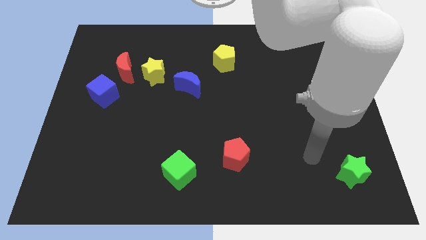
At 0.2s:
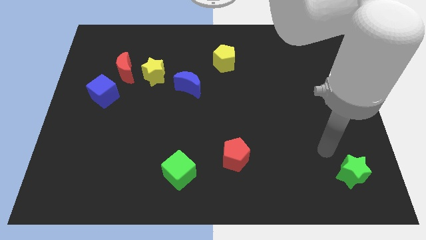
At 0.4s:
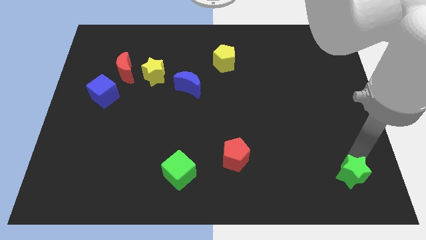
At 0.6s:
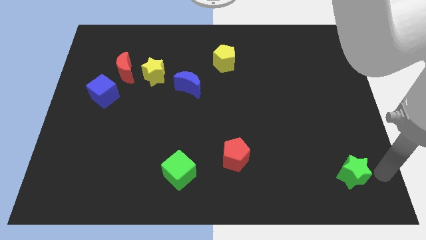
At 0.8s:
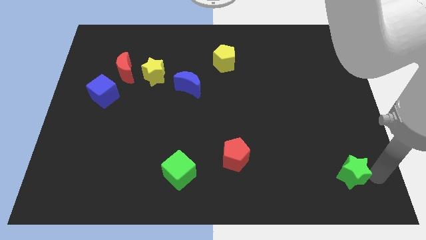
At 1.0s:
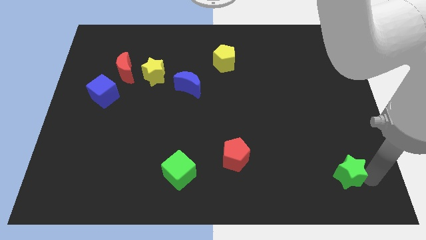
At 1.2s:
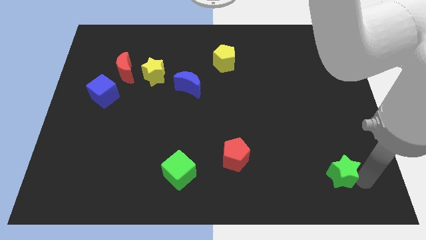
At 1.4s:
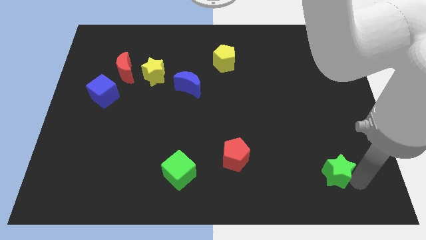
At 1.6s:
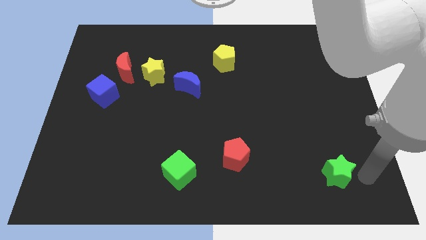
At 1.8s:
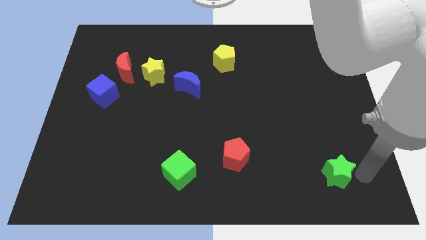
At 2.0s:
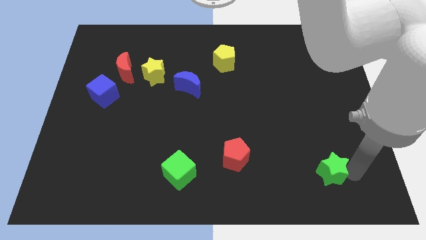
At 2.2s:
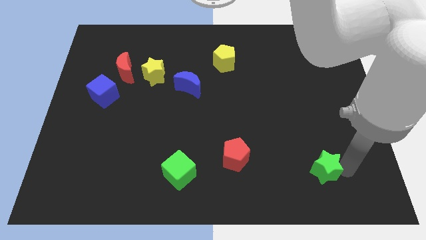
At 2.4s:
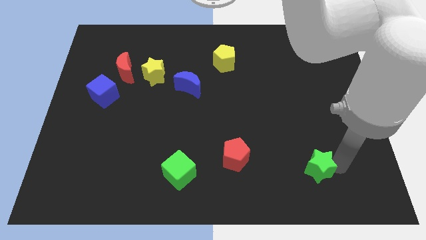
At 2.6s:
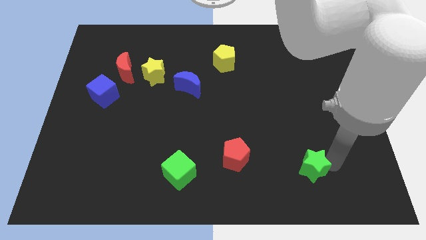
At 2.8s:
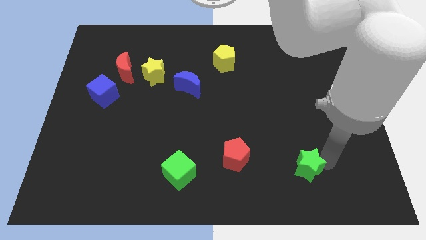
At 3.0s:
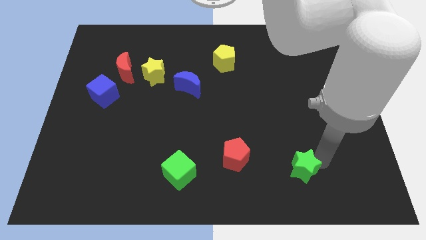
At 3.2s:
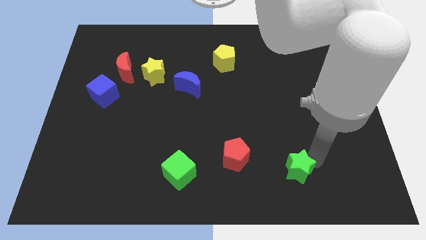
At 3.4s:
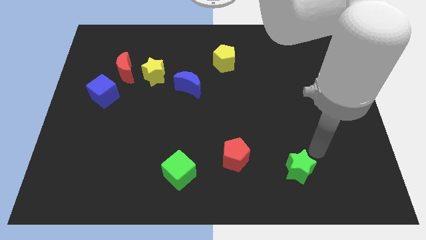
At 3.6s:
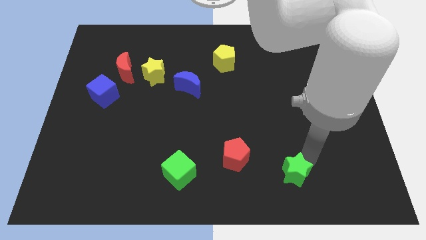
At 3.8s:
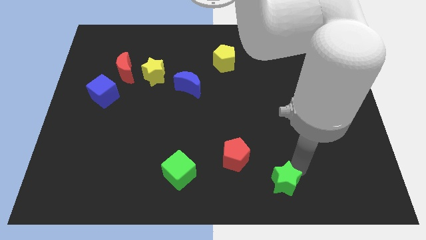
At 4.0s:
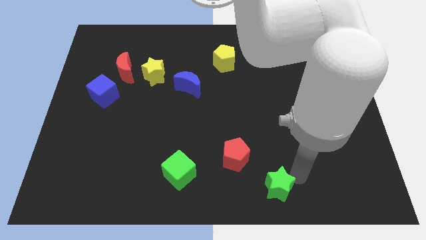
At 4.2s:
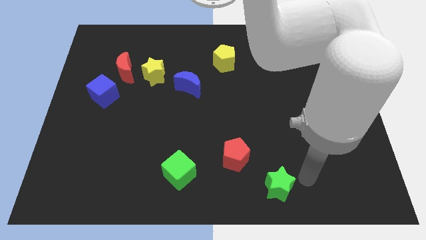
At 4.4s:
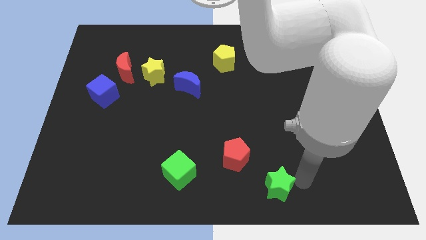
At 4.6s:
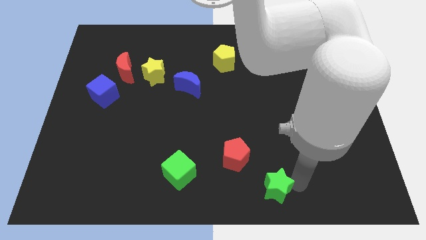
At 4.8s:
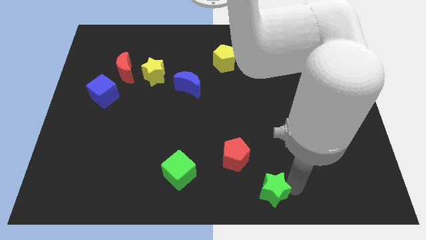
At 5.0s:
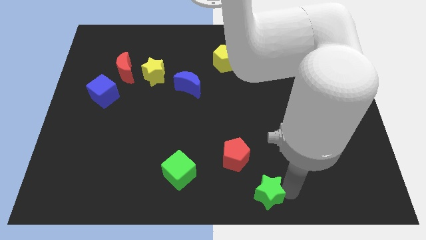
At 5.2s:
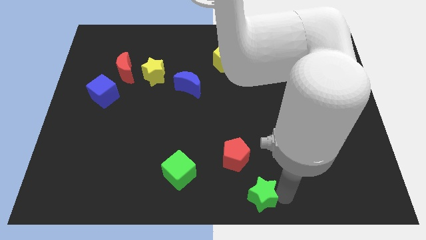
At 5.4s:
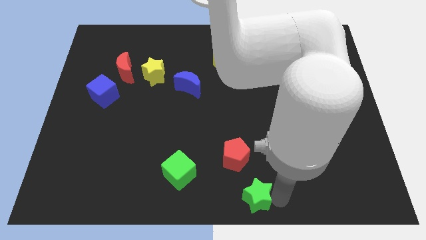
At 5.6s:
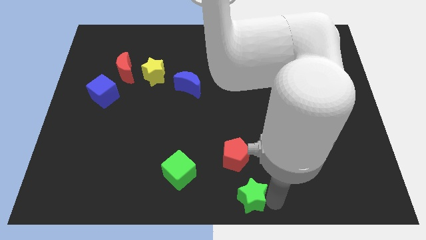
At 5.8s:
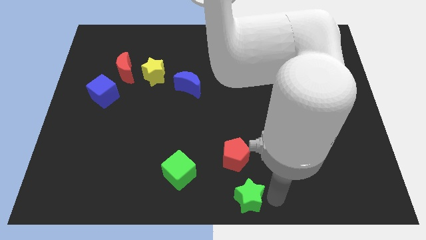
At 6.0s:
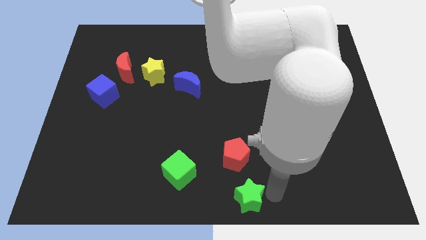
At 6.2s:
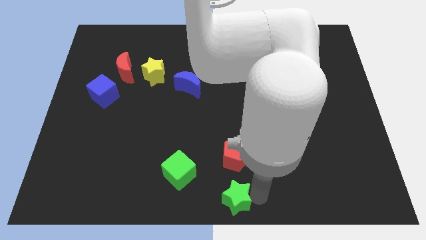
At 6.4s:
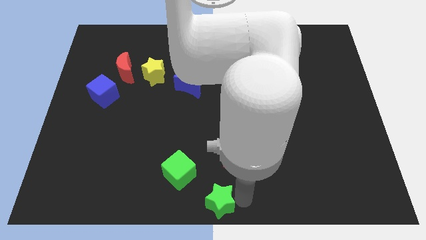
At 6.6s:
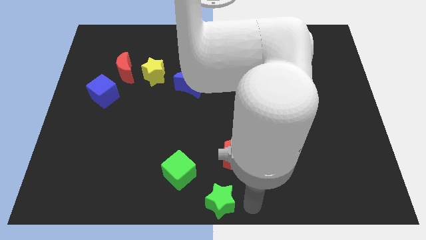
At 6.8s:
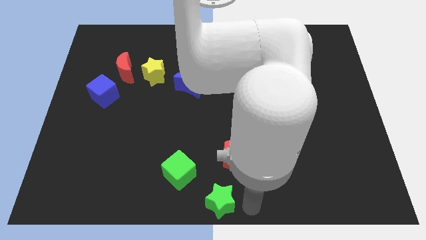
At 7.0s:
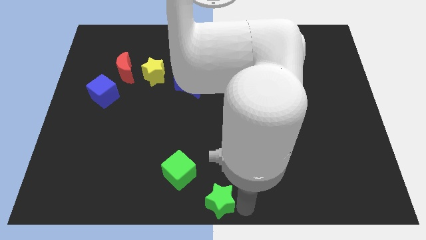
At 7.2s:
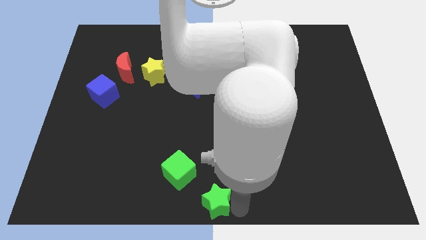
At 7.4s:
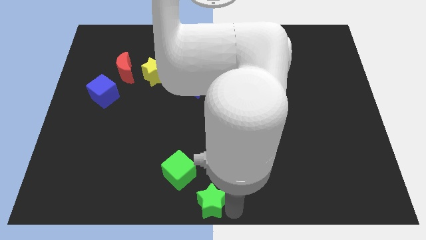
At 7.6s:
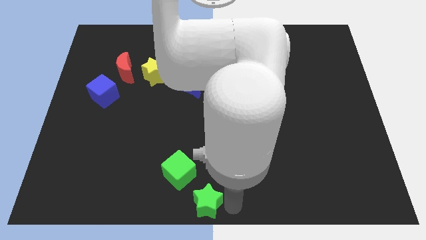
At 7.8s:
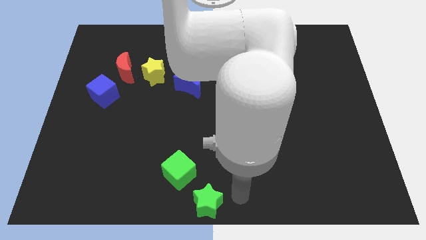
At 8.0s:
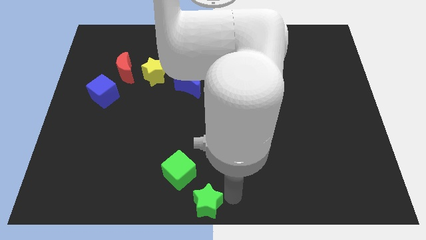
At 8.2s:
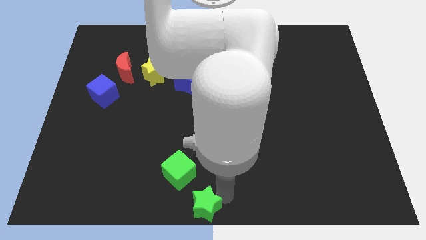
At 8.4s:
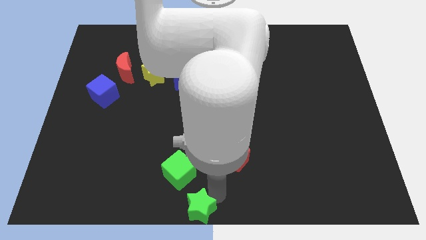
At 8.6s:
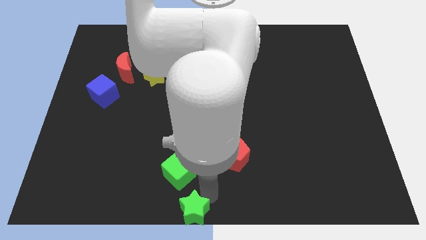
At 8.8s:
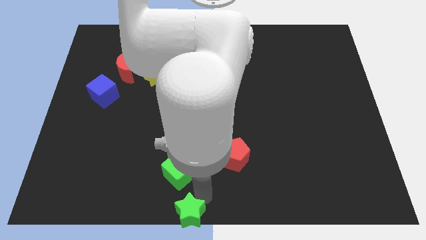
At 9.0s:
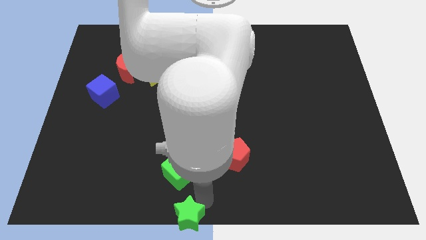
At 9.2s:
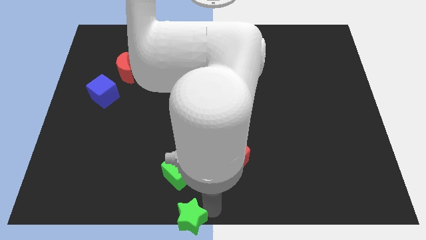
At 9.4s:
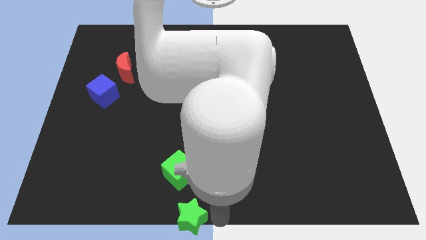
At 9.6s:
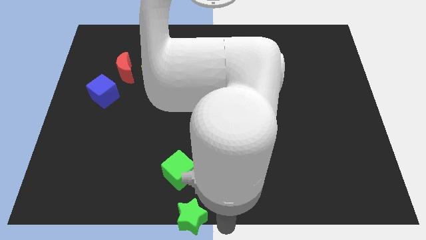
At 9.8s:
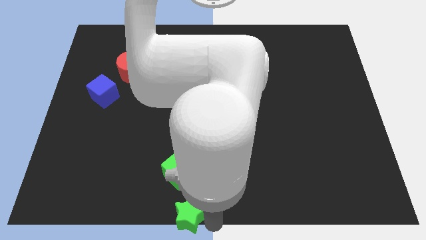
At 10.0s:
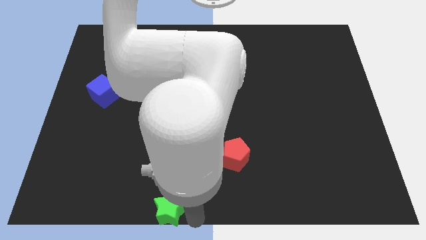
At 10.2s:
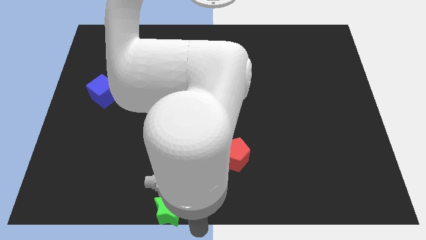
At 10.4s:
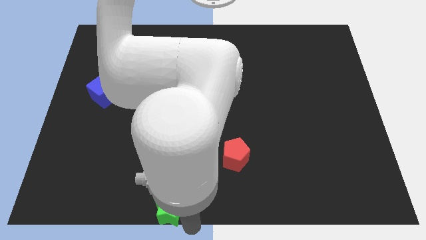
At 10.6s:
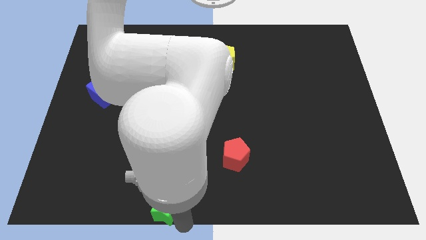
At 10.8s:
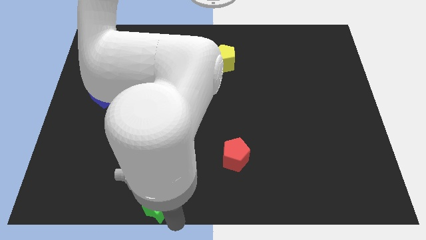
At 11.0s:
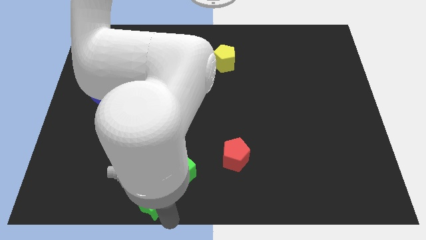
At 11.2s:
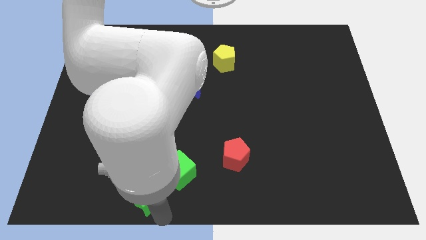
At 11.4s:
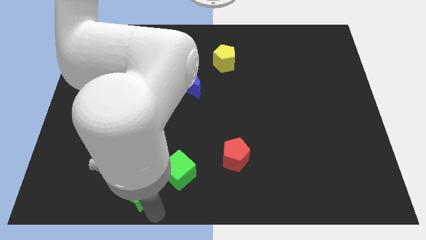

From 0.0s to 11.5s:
put the green star just left of the green cube

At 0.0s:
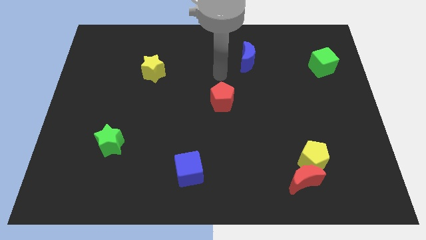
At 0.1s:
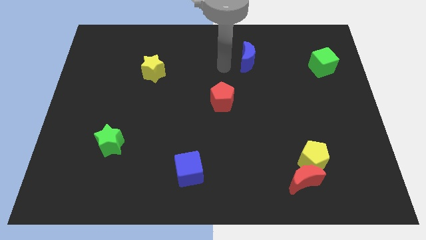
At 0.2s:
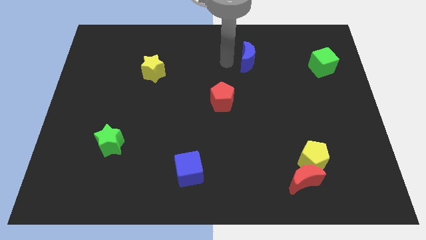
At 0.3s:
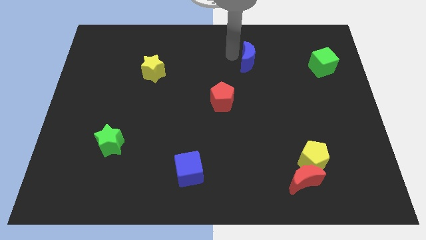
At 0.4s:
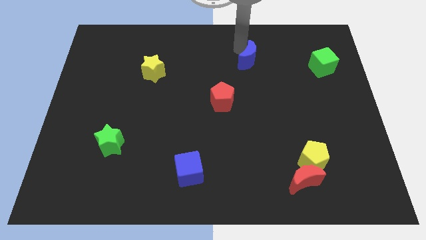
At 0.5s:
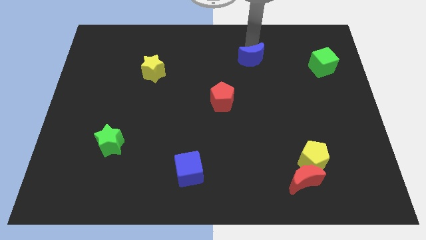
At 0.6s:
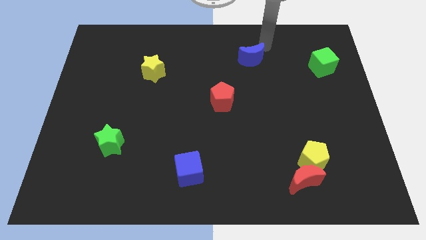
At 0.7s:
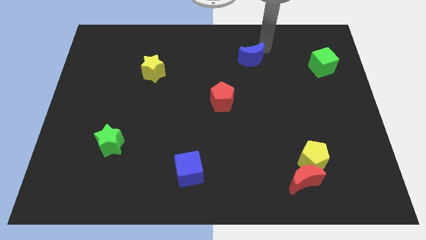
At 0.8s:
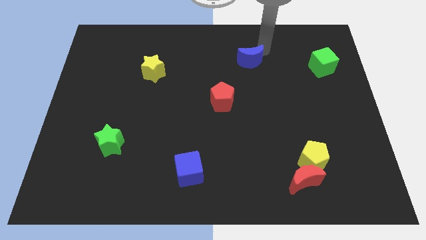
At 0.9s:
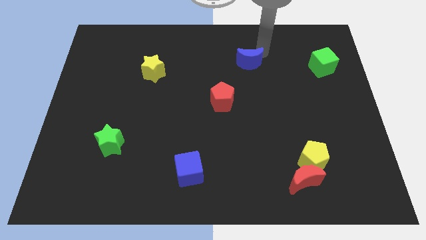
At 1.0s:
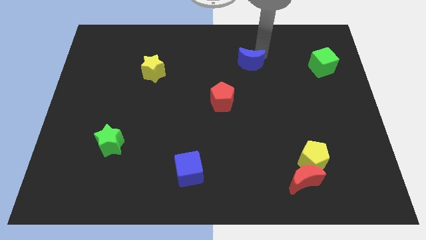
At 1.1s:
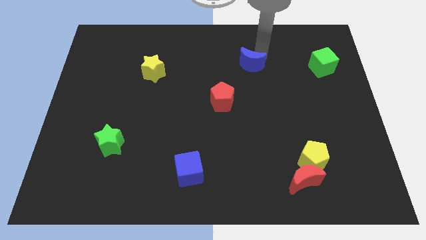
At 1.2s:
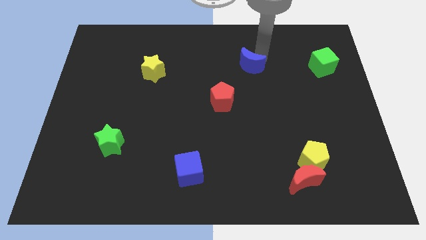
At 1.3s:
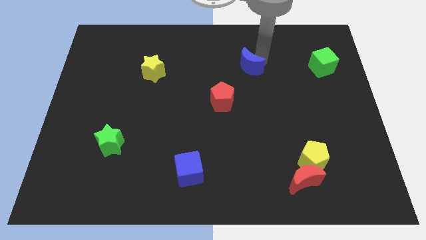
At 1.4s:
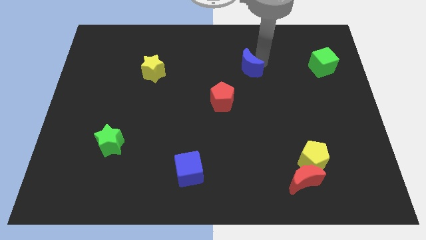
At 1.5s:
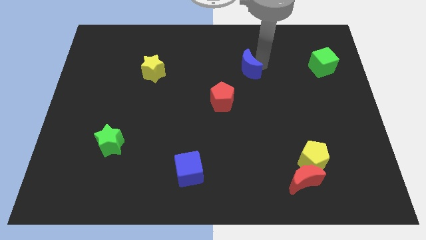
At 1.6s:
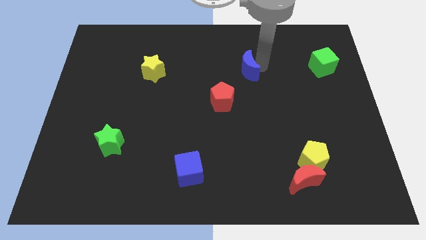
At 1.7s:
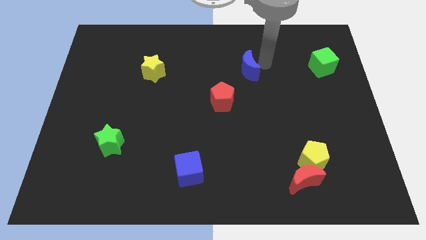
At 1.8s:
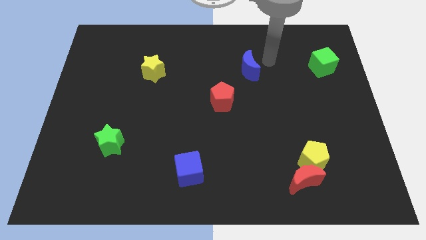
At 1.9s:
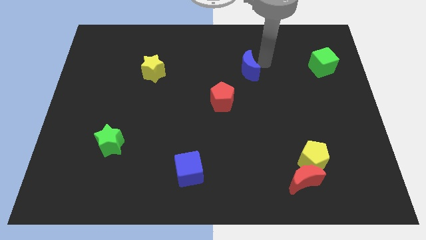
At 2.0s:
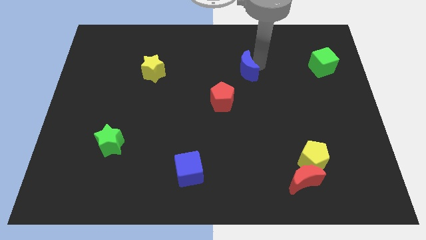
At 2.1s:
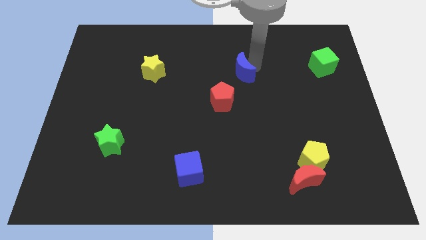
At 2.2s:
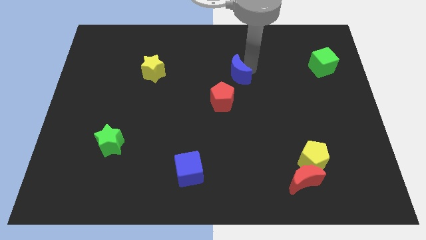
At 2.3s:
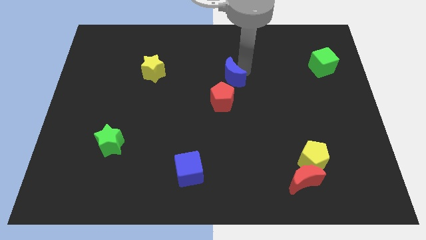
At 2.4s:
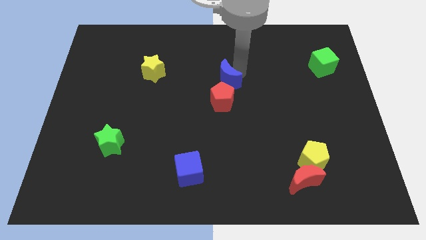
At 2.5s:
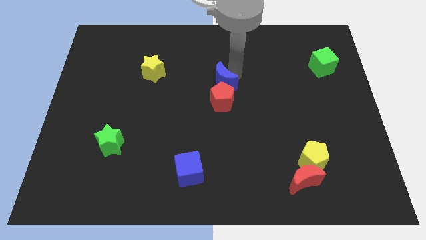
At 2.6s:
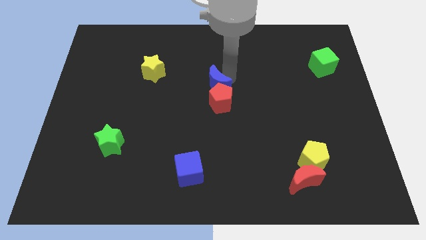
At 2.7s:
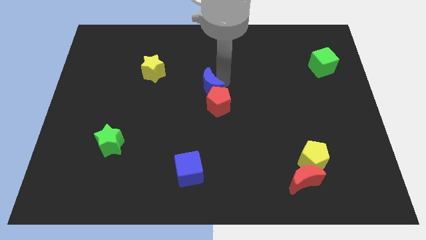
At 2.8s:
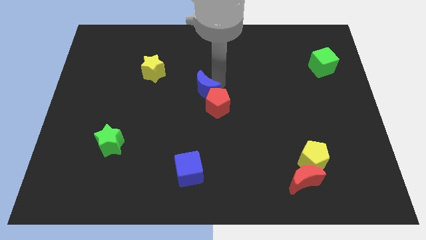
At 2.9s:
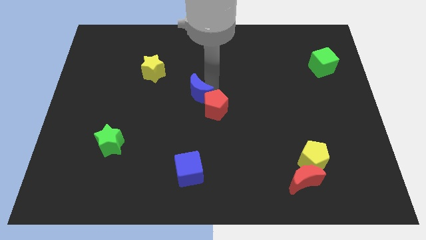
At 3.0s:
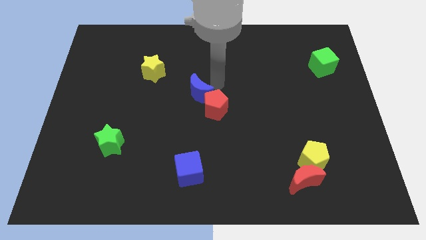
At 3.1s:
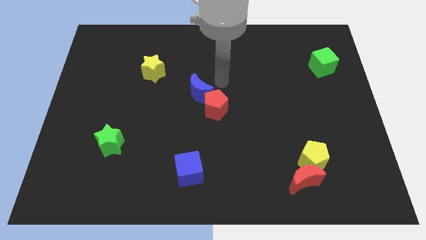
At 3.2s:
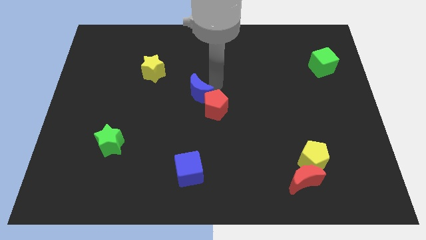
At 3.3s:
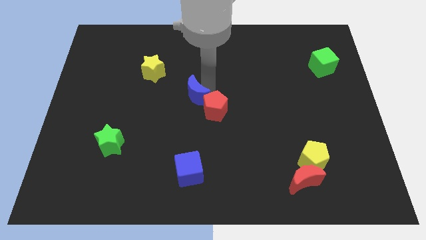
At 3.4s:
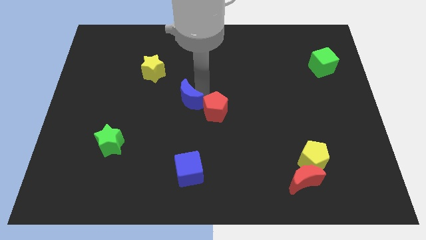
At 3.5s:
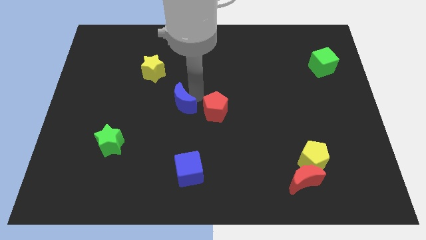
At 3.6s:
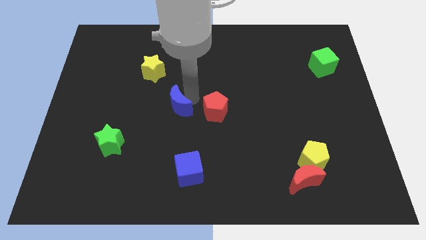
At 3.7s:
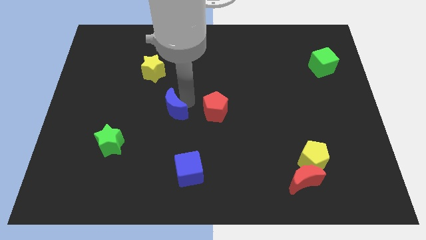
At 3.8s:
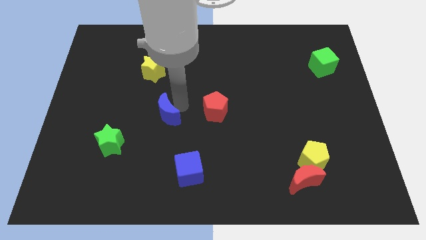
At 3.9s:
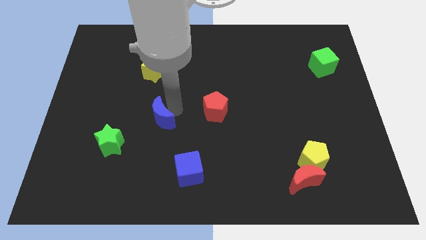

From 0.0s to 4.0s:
push the blue moon to the top right side of the green star
